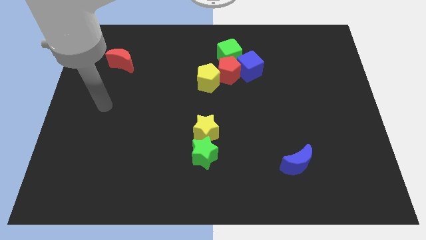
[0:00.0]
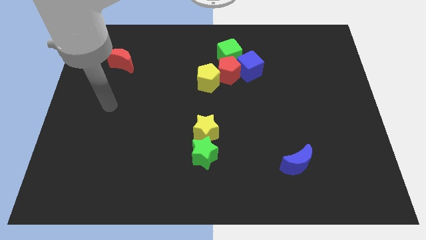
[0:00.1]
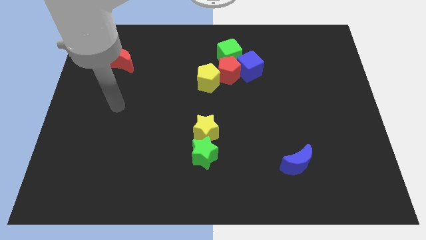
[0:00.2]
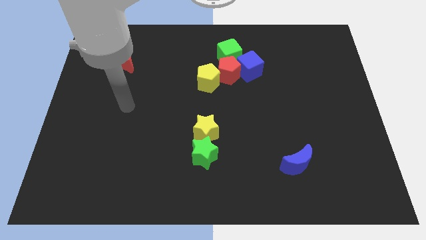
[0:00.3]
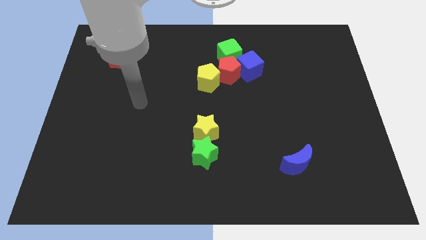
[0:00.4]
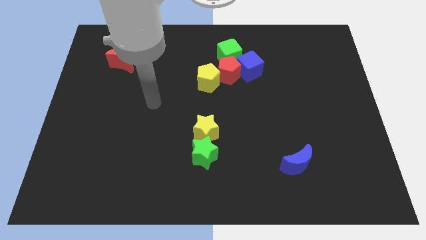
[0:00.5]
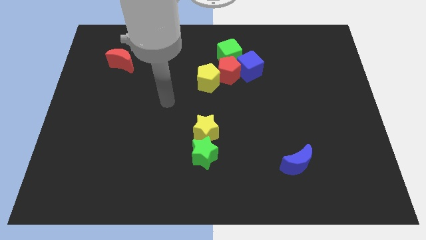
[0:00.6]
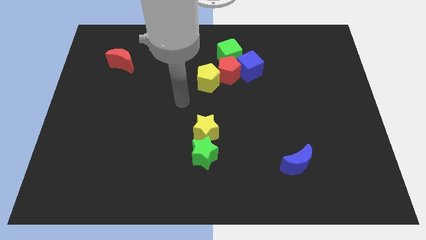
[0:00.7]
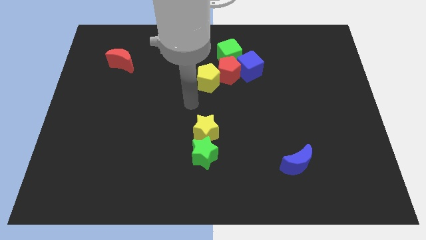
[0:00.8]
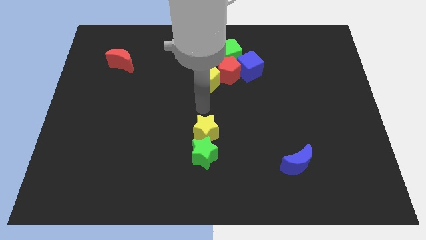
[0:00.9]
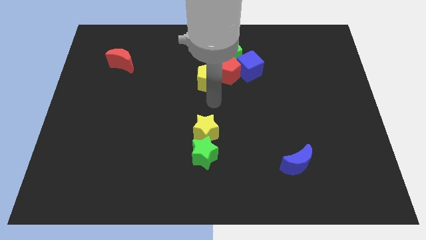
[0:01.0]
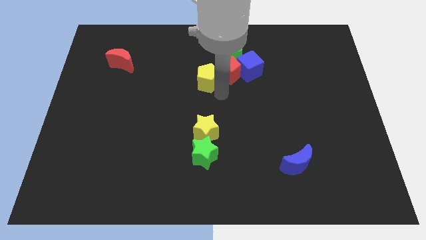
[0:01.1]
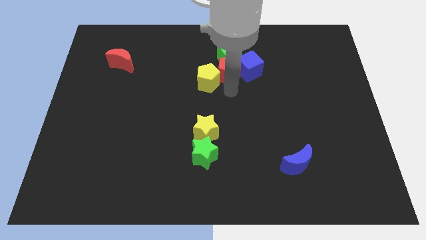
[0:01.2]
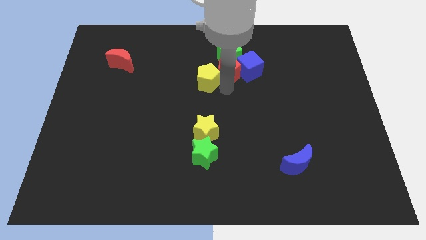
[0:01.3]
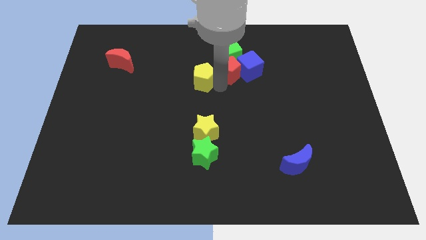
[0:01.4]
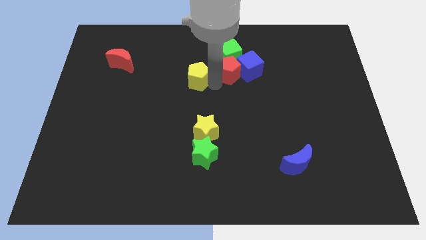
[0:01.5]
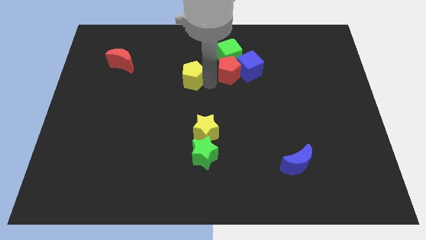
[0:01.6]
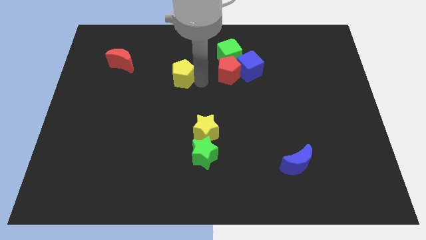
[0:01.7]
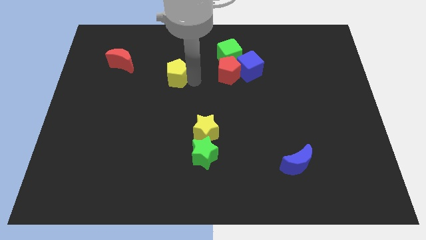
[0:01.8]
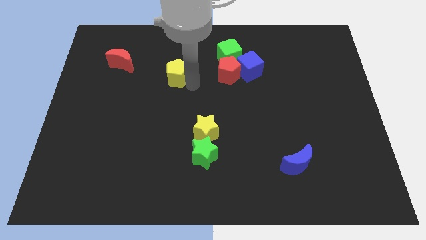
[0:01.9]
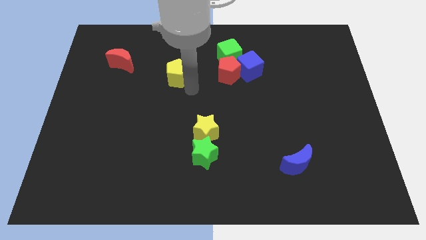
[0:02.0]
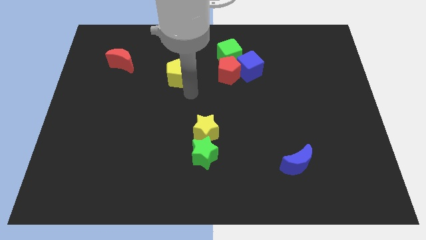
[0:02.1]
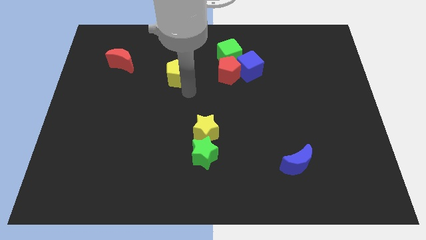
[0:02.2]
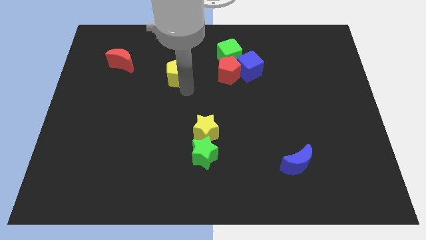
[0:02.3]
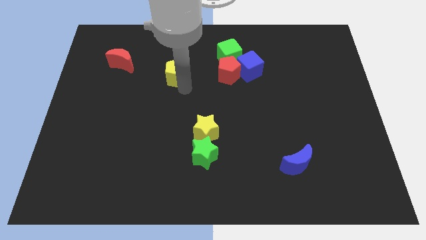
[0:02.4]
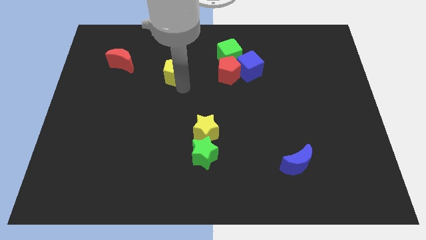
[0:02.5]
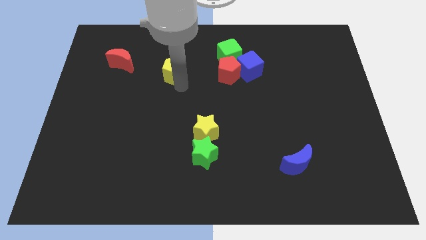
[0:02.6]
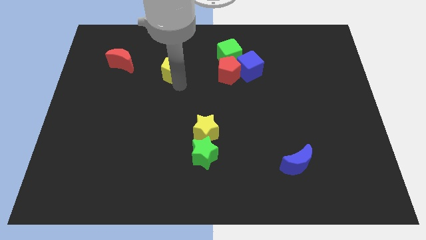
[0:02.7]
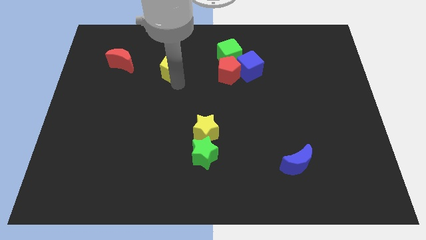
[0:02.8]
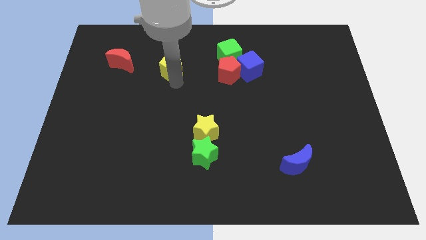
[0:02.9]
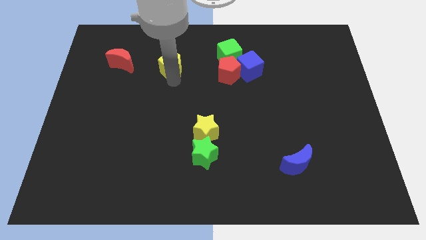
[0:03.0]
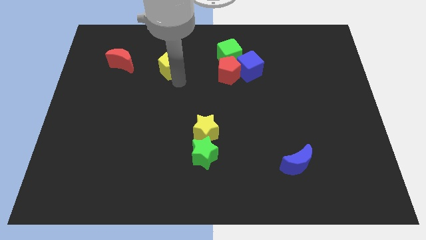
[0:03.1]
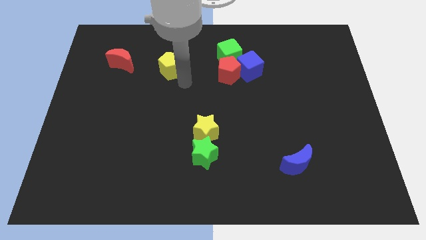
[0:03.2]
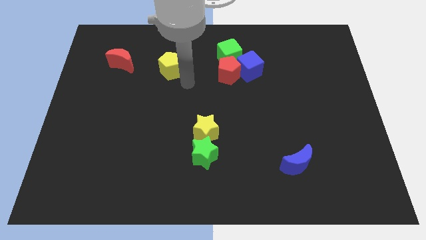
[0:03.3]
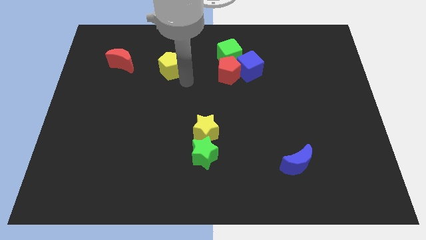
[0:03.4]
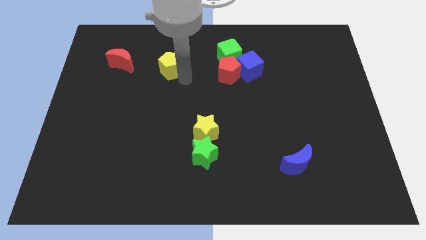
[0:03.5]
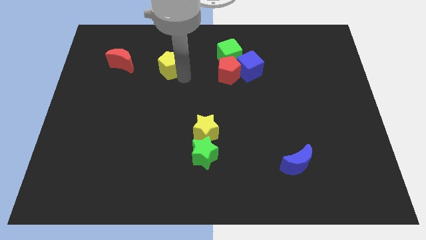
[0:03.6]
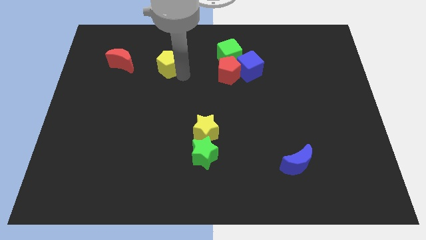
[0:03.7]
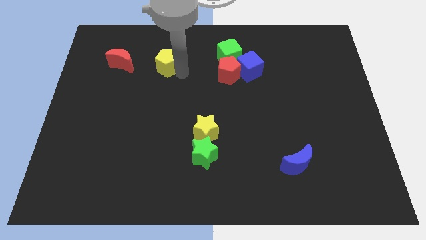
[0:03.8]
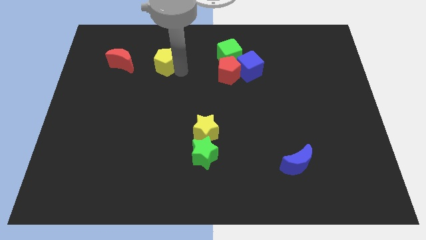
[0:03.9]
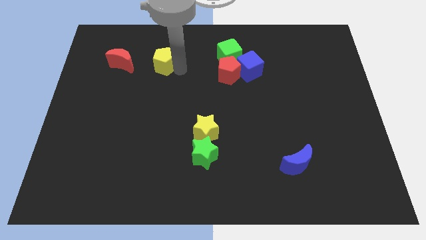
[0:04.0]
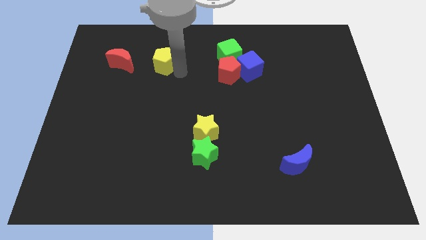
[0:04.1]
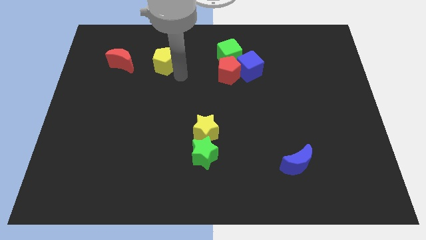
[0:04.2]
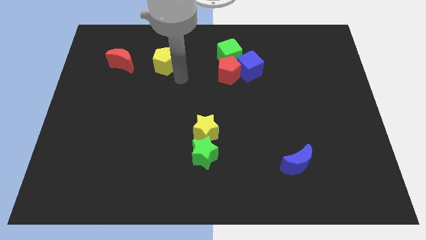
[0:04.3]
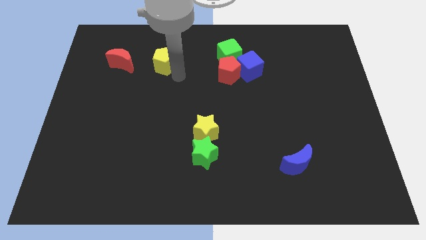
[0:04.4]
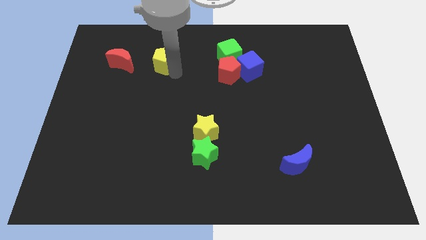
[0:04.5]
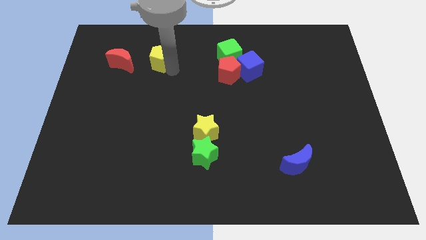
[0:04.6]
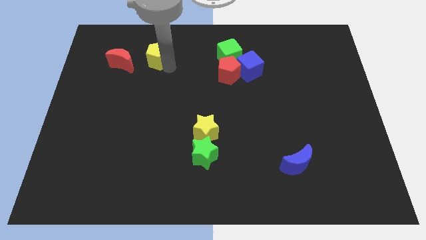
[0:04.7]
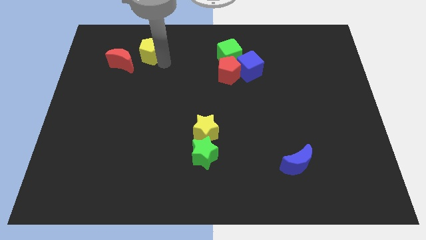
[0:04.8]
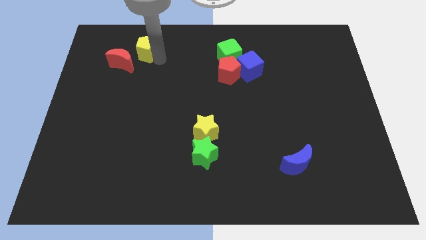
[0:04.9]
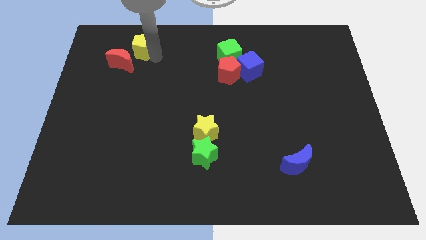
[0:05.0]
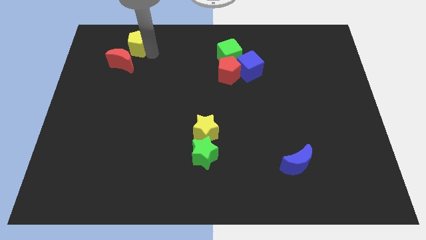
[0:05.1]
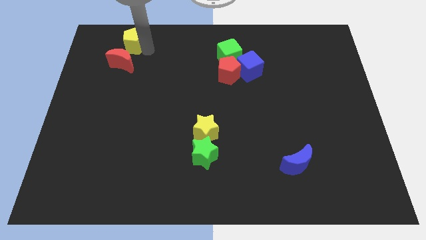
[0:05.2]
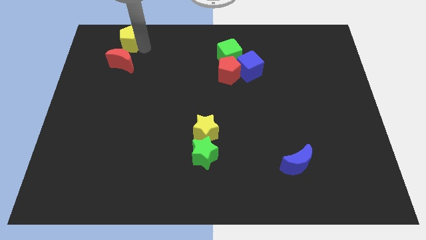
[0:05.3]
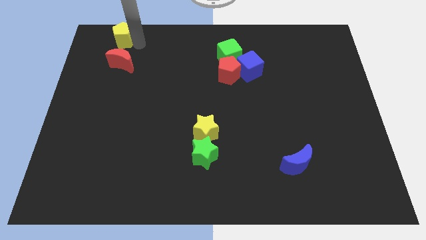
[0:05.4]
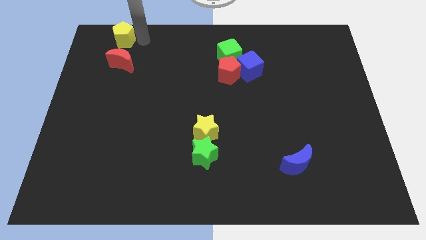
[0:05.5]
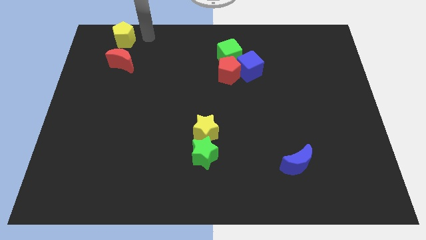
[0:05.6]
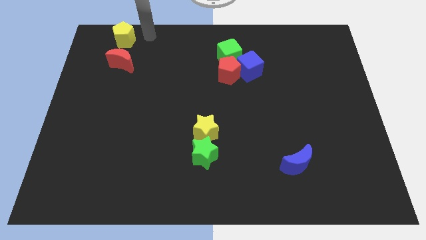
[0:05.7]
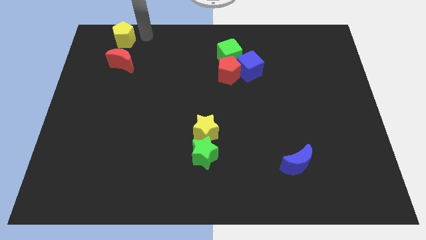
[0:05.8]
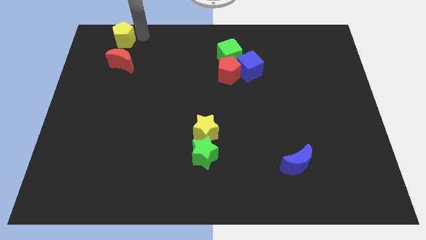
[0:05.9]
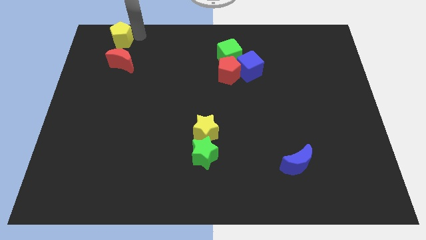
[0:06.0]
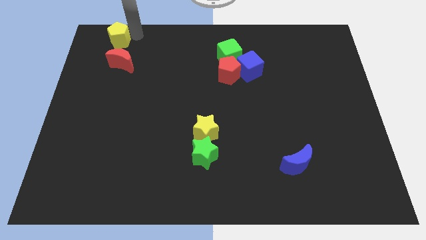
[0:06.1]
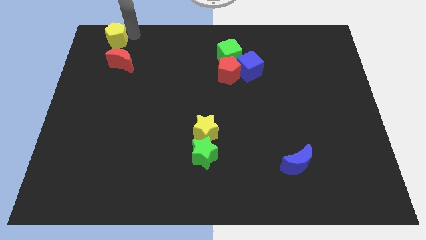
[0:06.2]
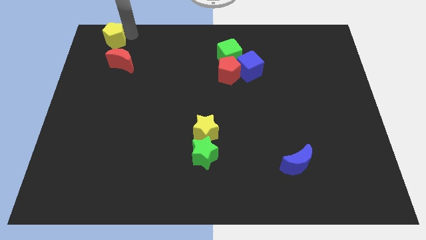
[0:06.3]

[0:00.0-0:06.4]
move the yellow pentagon to the top left corner

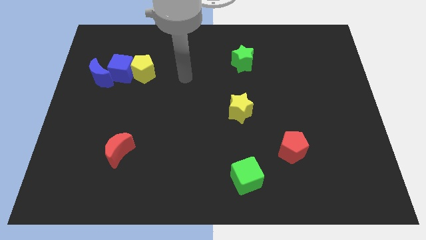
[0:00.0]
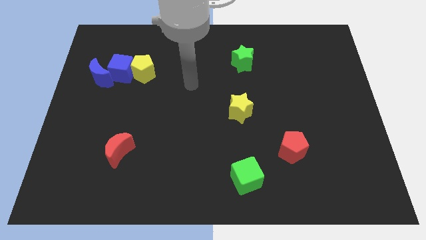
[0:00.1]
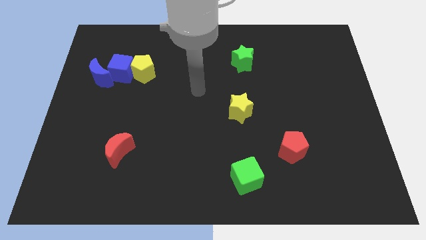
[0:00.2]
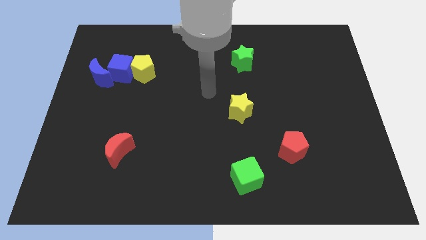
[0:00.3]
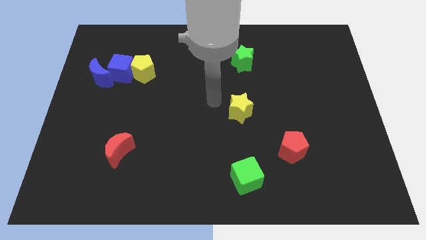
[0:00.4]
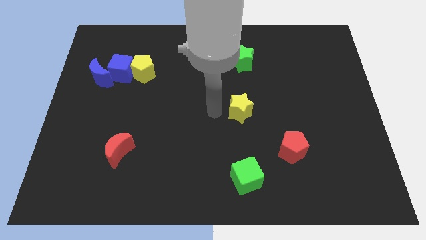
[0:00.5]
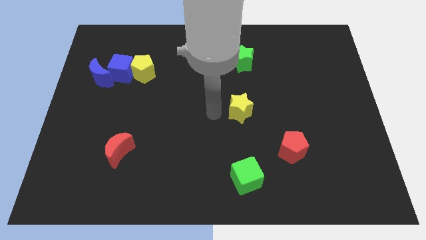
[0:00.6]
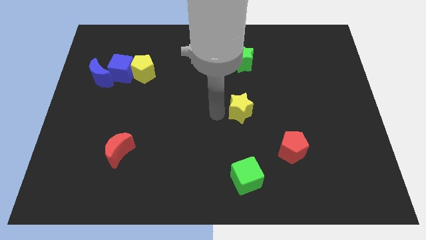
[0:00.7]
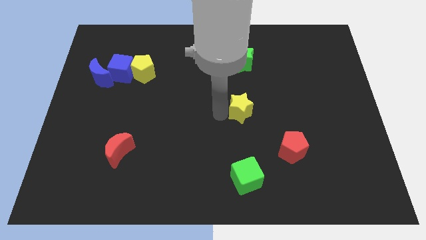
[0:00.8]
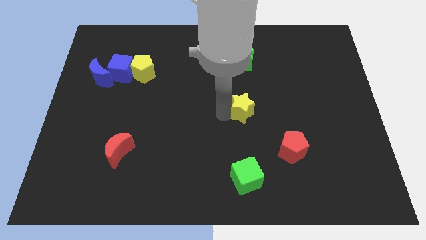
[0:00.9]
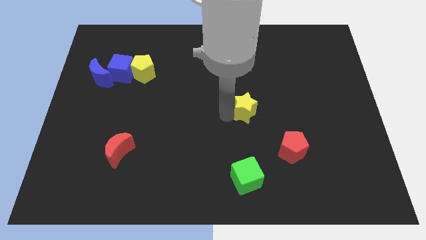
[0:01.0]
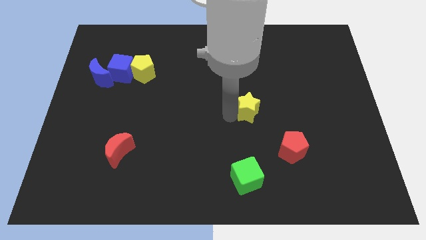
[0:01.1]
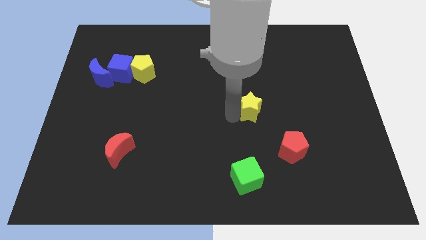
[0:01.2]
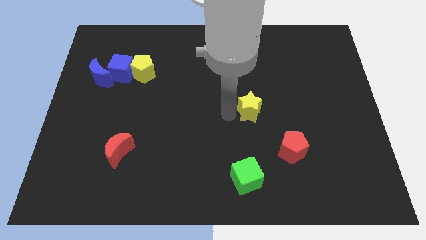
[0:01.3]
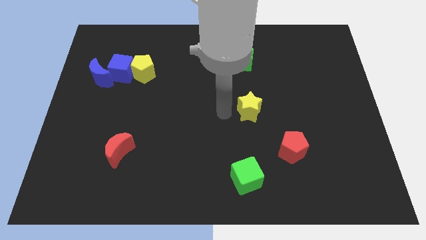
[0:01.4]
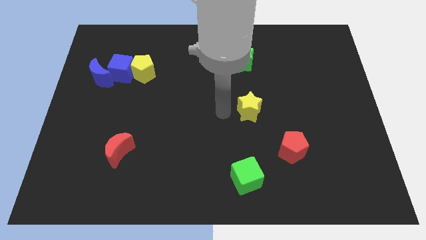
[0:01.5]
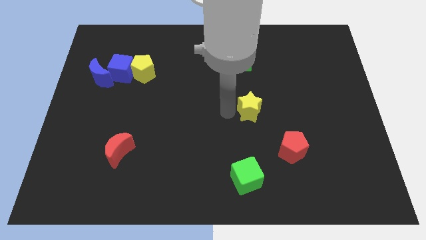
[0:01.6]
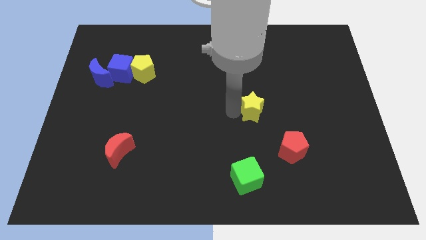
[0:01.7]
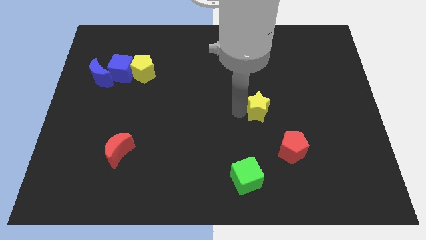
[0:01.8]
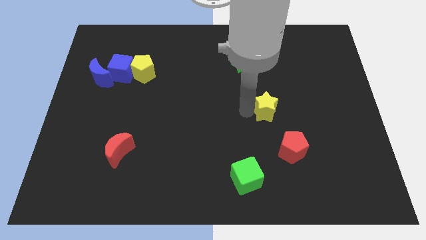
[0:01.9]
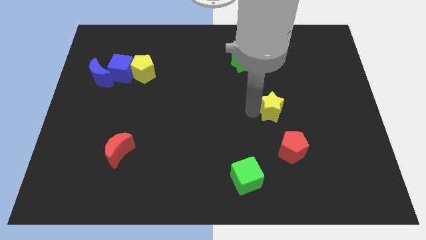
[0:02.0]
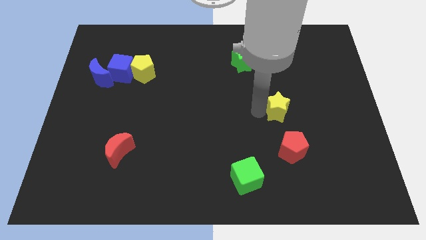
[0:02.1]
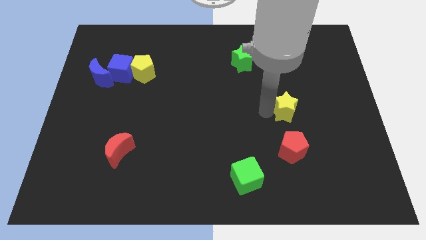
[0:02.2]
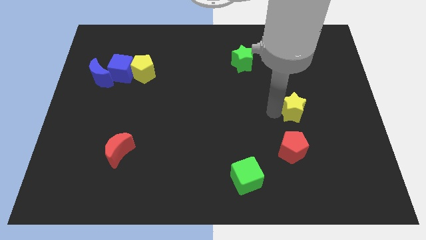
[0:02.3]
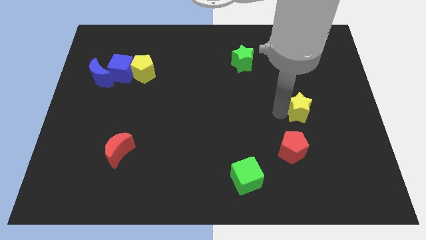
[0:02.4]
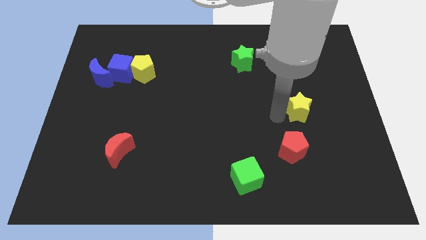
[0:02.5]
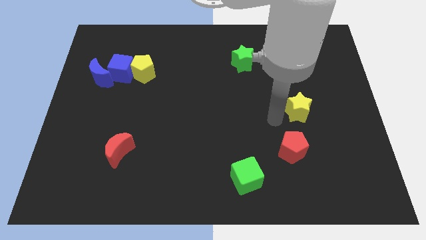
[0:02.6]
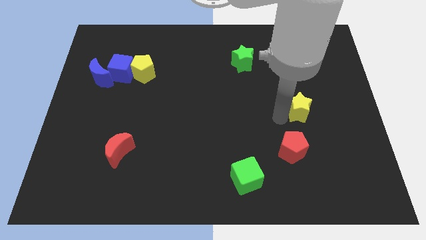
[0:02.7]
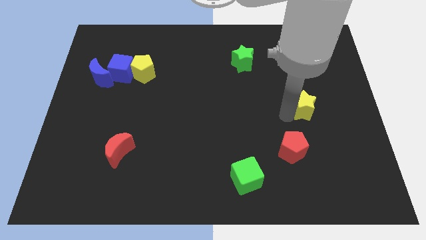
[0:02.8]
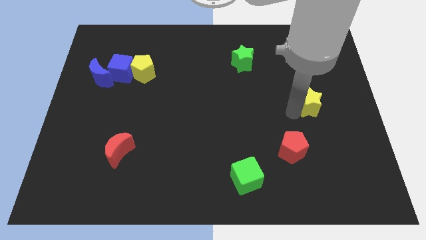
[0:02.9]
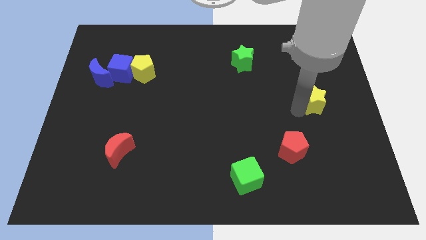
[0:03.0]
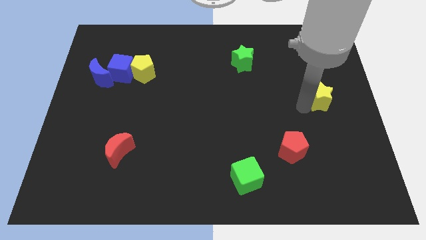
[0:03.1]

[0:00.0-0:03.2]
push the yellow star to the center right
